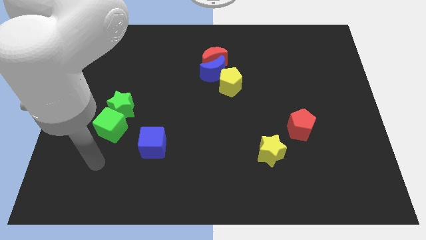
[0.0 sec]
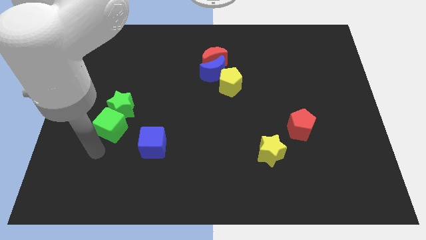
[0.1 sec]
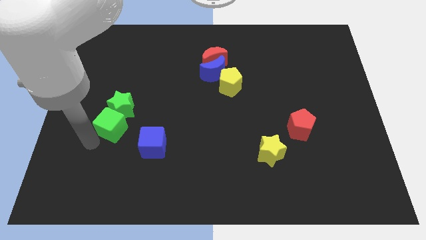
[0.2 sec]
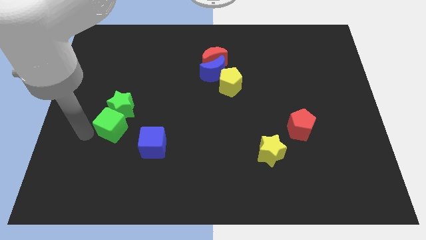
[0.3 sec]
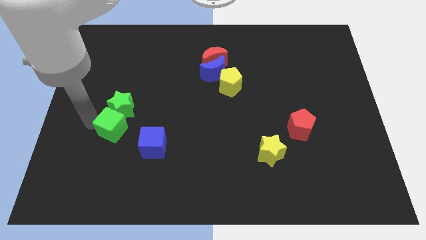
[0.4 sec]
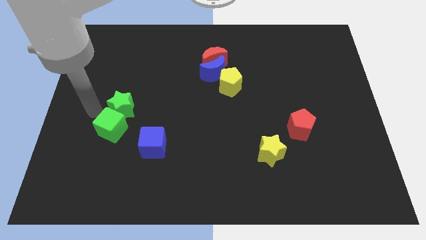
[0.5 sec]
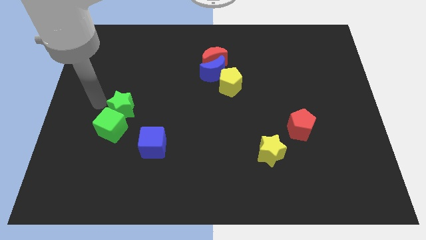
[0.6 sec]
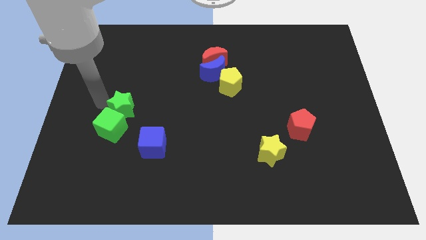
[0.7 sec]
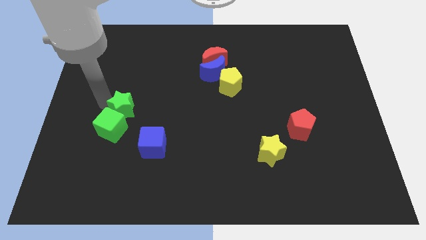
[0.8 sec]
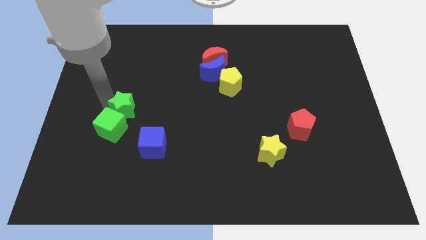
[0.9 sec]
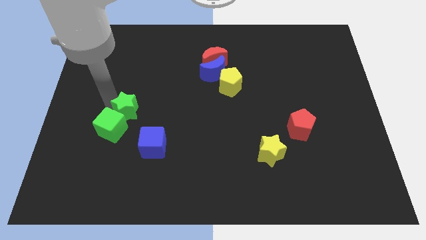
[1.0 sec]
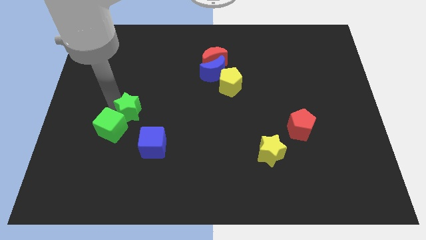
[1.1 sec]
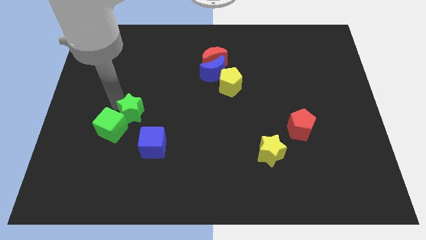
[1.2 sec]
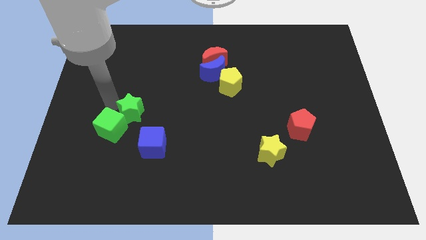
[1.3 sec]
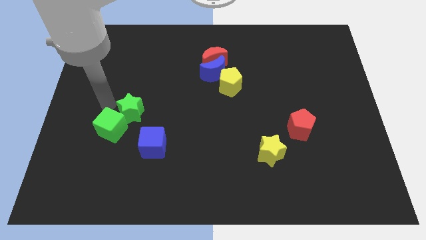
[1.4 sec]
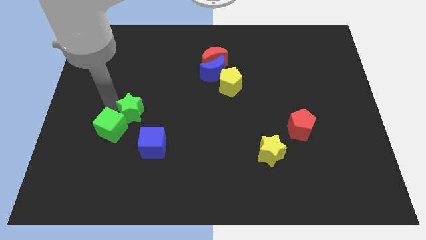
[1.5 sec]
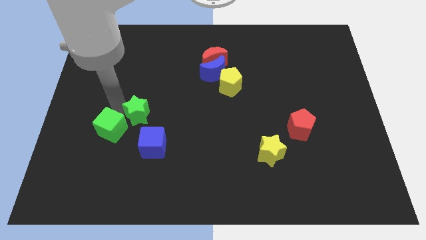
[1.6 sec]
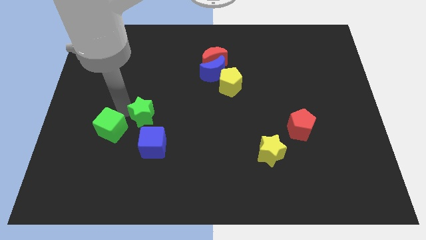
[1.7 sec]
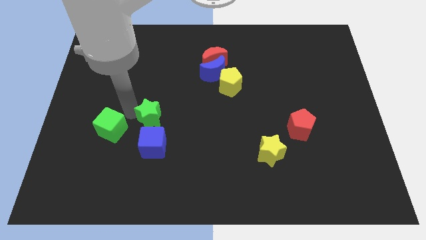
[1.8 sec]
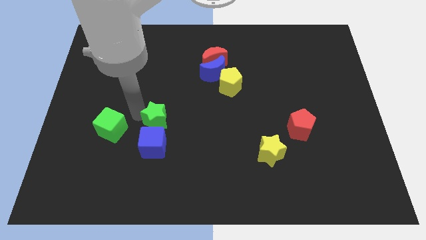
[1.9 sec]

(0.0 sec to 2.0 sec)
slide the green star downwards and right a little

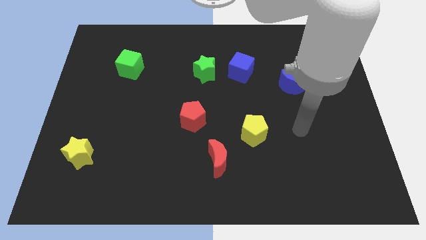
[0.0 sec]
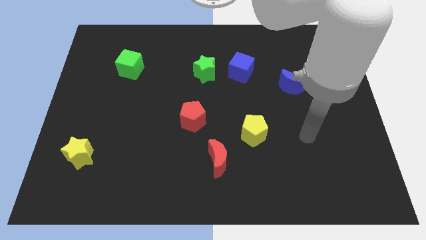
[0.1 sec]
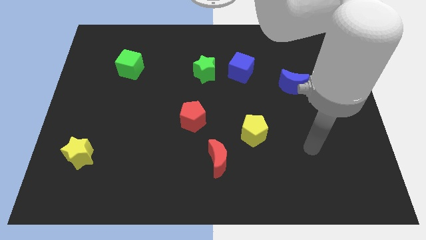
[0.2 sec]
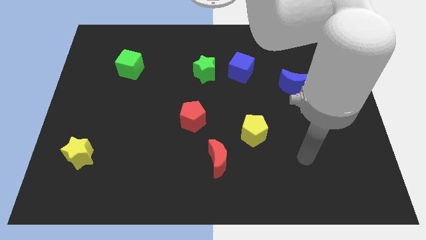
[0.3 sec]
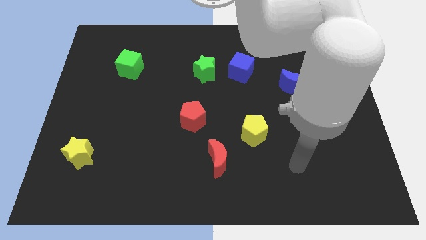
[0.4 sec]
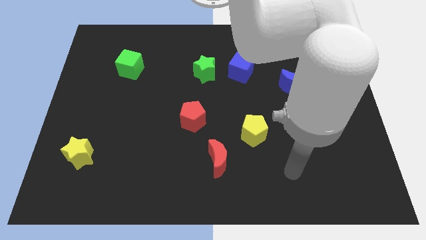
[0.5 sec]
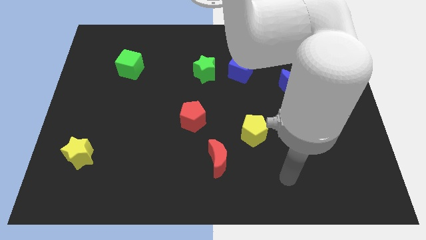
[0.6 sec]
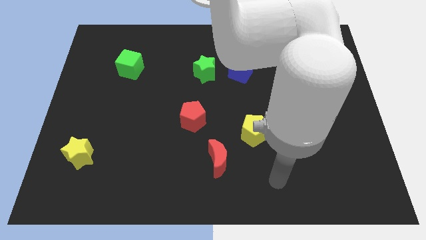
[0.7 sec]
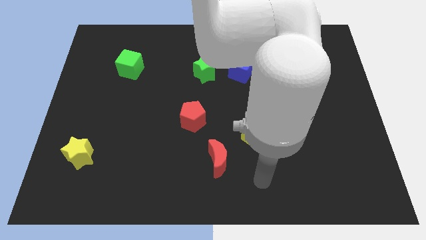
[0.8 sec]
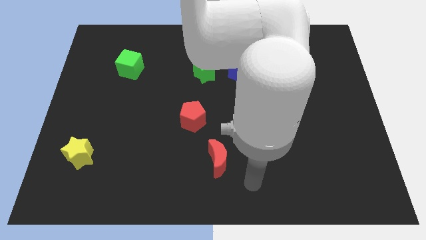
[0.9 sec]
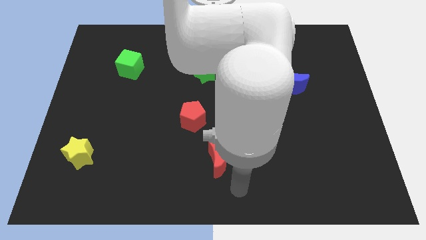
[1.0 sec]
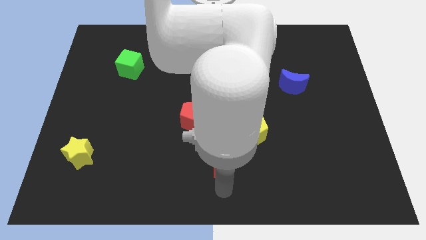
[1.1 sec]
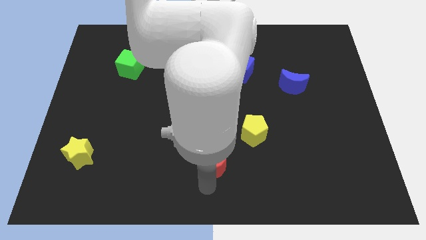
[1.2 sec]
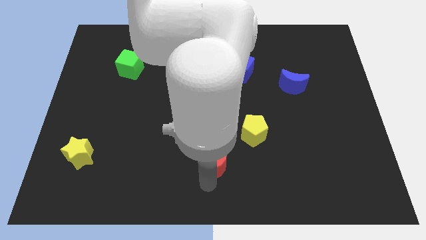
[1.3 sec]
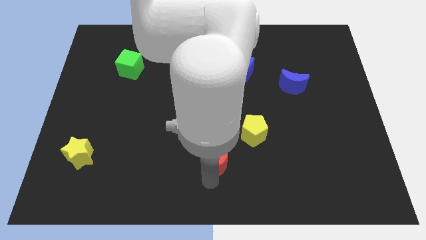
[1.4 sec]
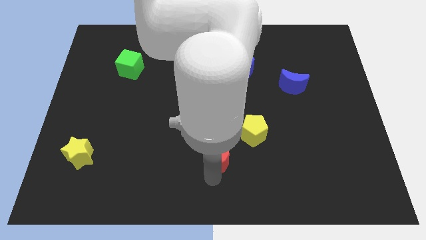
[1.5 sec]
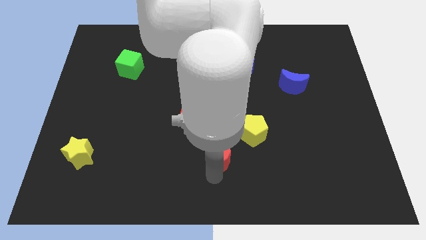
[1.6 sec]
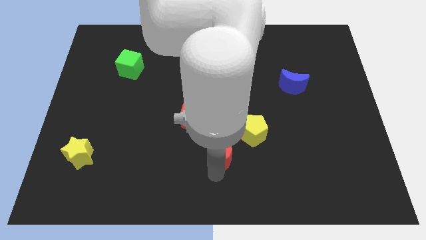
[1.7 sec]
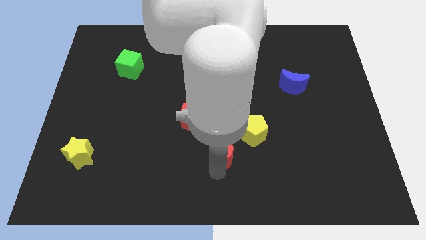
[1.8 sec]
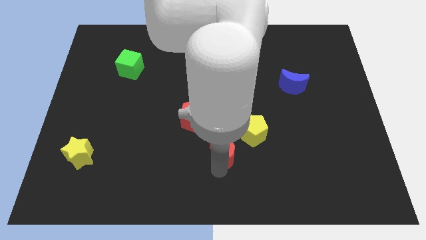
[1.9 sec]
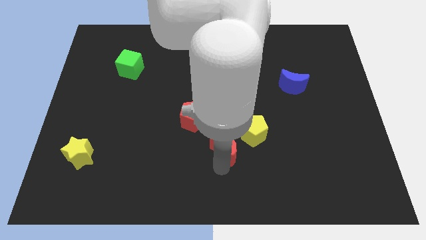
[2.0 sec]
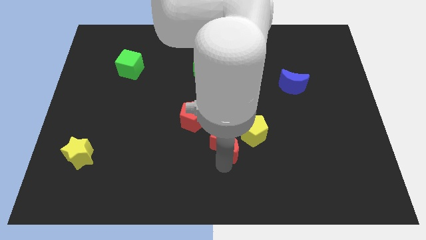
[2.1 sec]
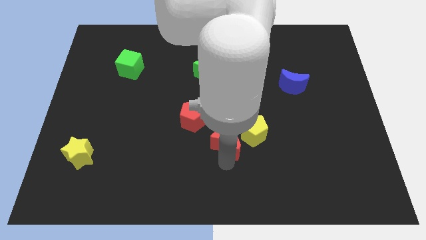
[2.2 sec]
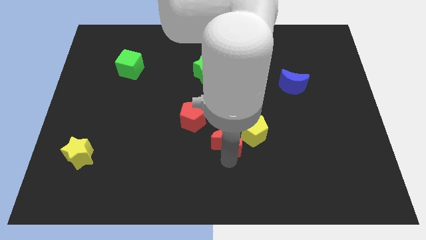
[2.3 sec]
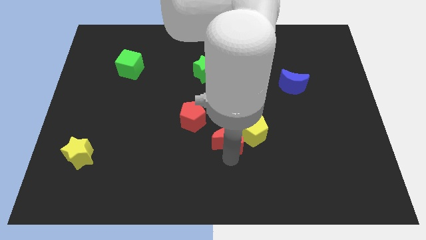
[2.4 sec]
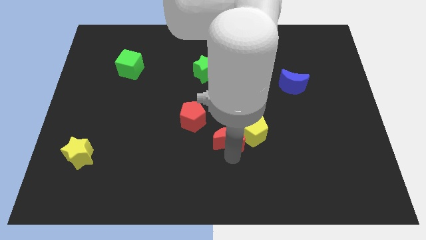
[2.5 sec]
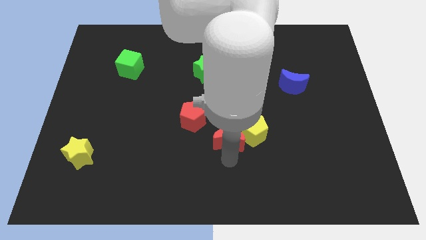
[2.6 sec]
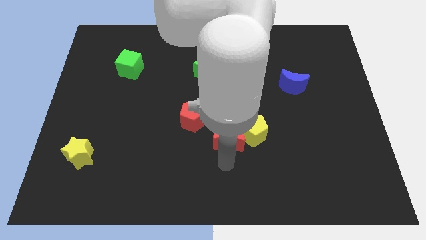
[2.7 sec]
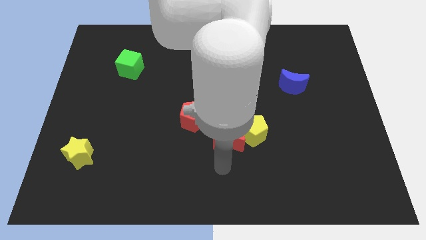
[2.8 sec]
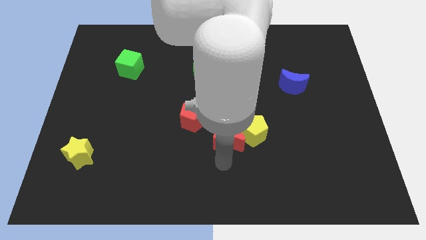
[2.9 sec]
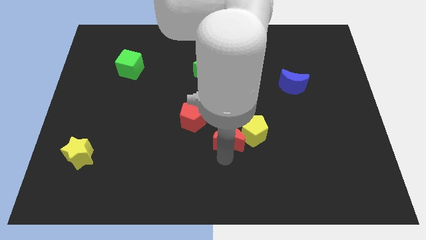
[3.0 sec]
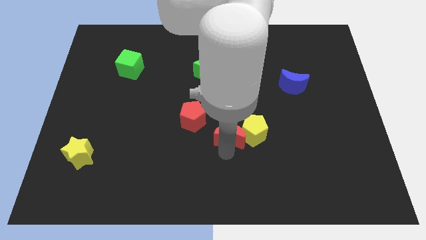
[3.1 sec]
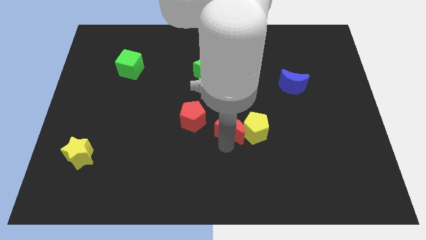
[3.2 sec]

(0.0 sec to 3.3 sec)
push the red moon a little diagonally upwards and to the right

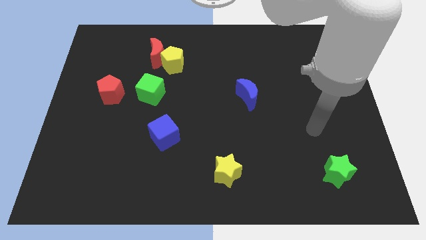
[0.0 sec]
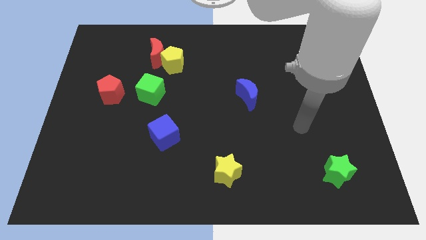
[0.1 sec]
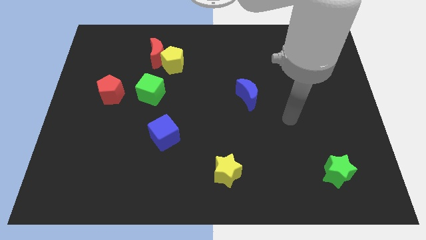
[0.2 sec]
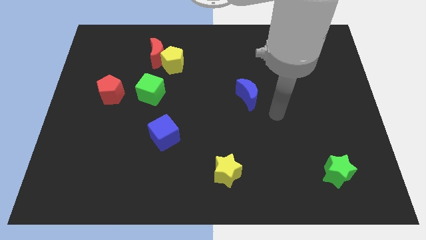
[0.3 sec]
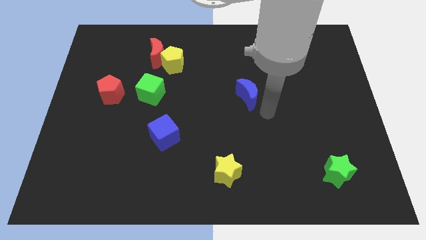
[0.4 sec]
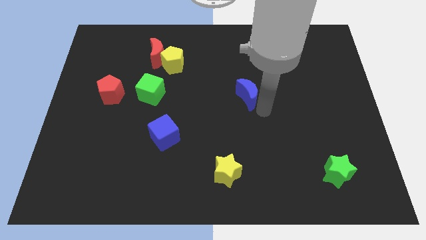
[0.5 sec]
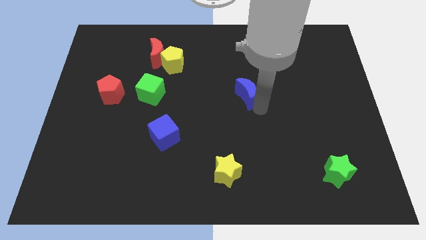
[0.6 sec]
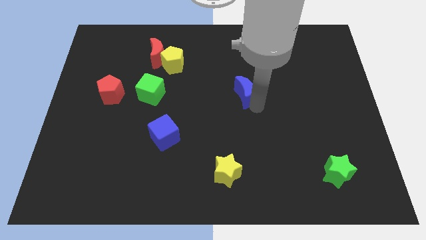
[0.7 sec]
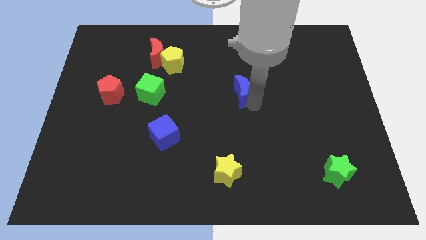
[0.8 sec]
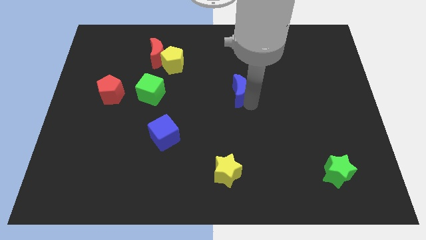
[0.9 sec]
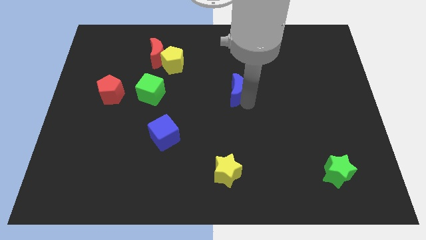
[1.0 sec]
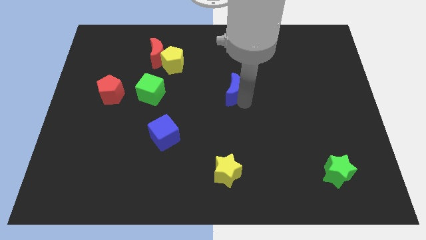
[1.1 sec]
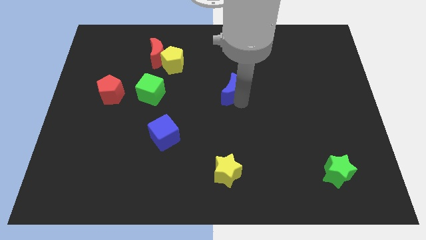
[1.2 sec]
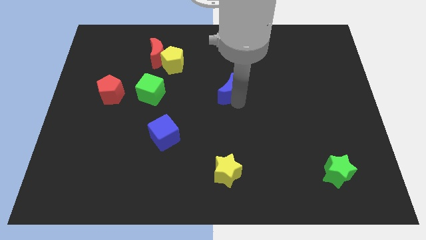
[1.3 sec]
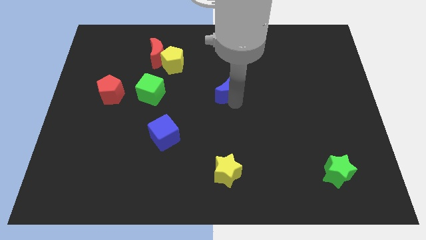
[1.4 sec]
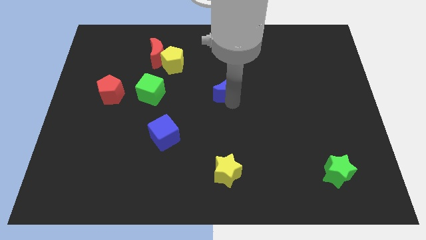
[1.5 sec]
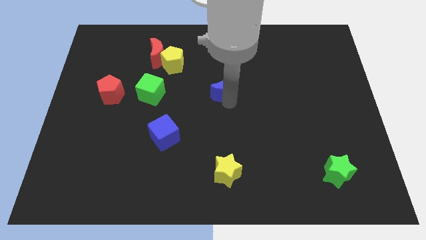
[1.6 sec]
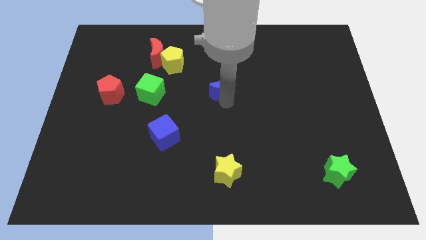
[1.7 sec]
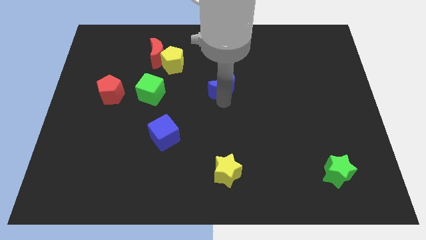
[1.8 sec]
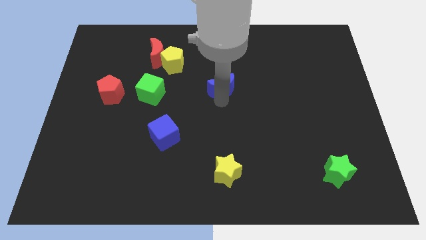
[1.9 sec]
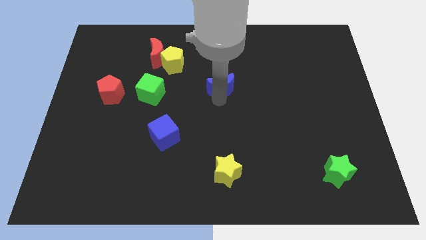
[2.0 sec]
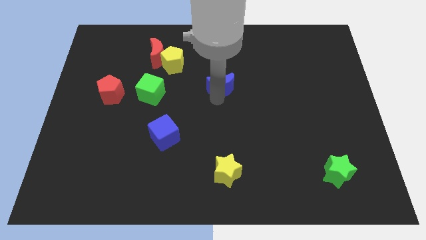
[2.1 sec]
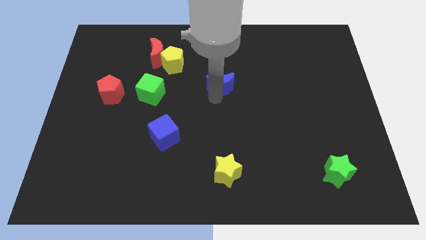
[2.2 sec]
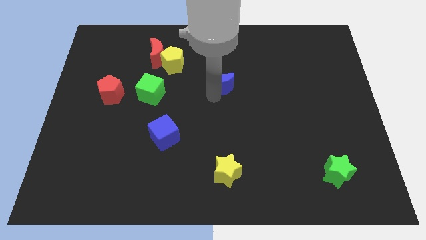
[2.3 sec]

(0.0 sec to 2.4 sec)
push the blue moon up and to the left a little

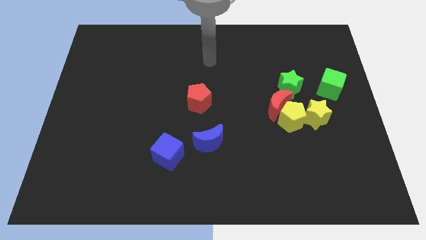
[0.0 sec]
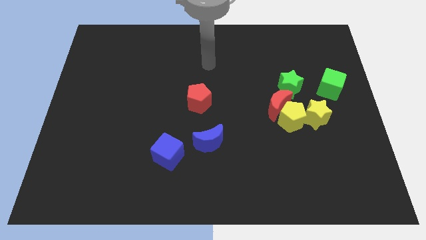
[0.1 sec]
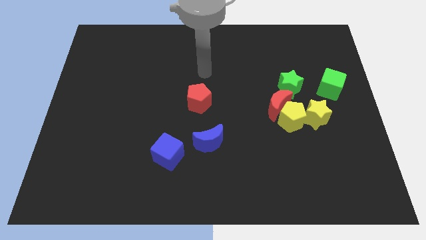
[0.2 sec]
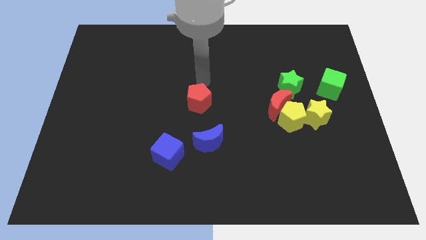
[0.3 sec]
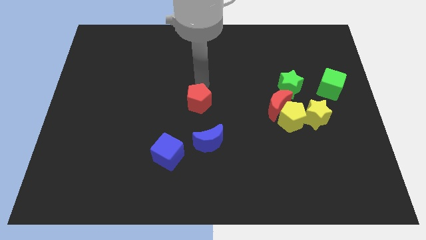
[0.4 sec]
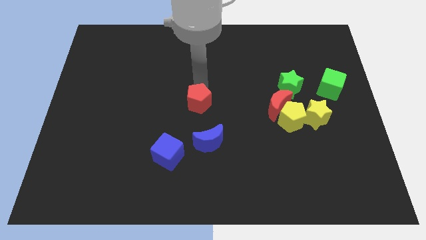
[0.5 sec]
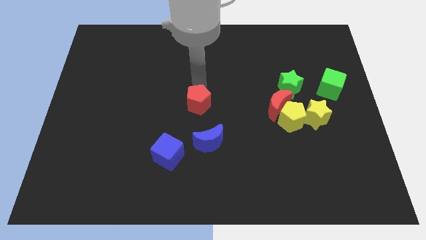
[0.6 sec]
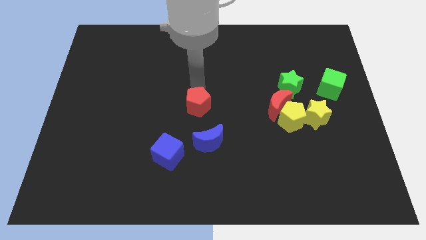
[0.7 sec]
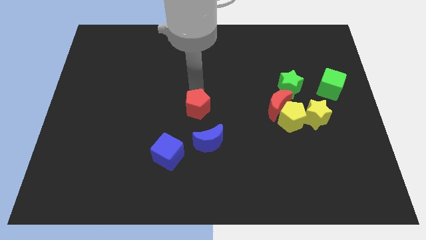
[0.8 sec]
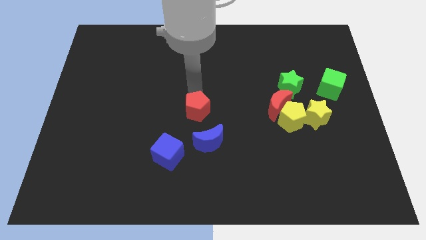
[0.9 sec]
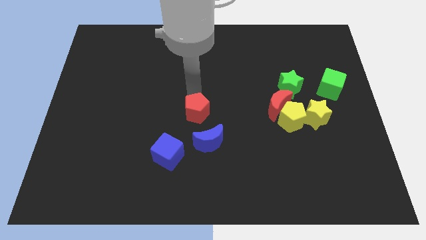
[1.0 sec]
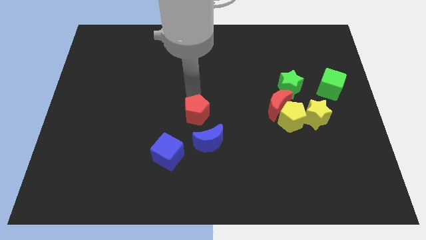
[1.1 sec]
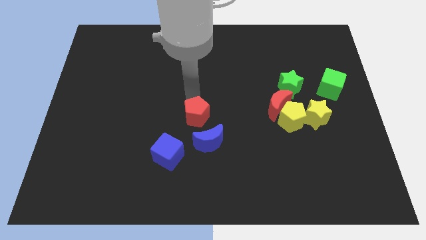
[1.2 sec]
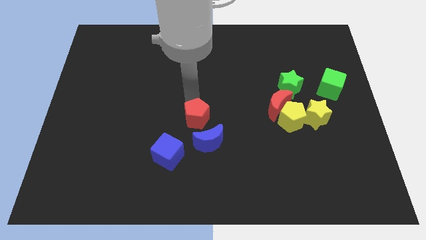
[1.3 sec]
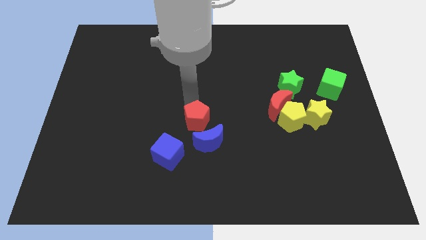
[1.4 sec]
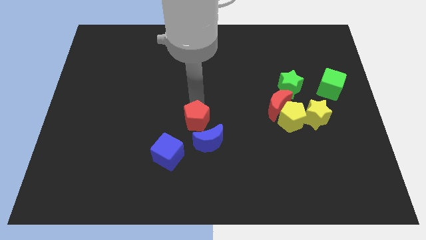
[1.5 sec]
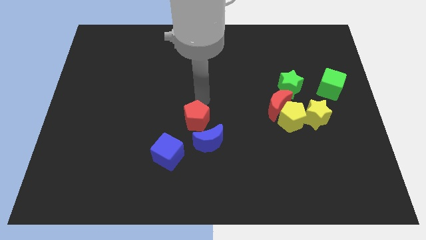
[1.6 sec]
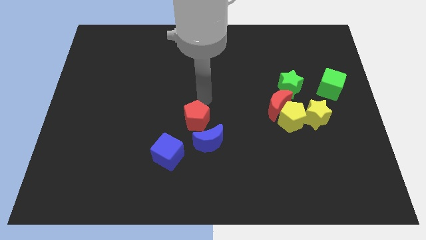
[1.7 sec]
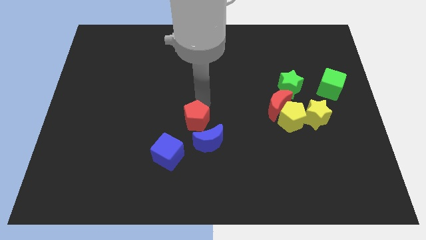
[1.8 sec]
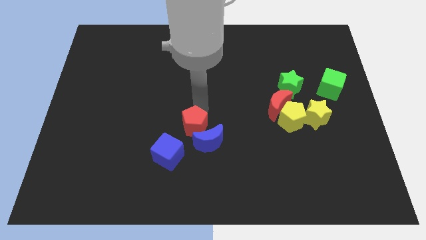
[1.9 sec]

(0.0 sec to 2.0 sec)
slide the red pentagon a bit downwards
